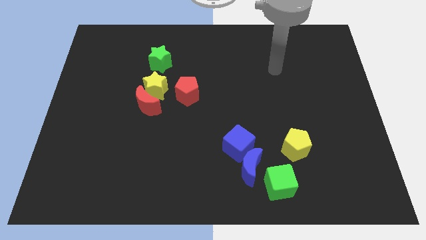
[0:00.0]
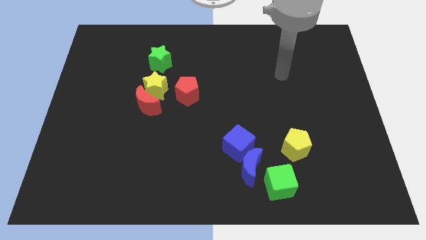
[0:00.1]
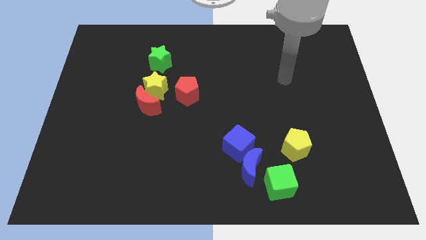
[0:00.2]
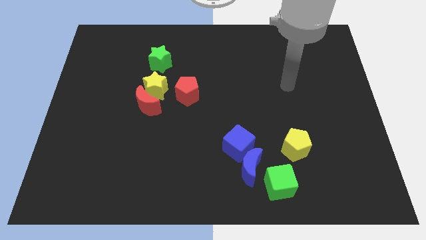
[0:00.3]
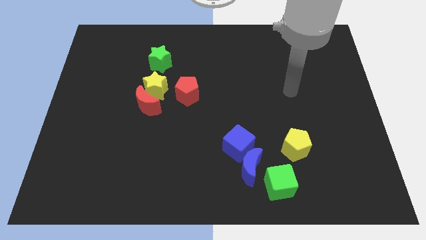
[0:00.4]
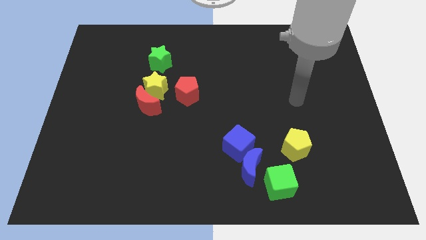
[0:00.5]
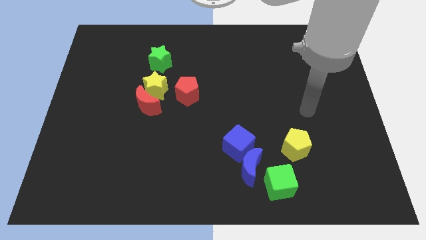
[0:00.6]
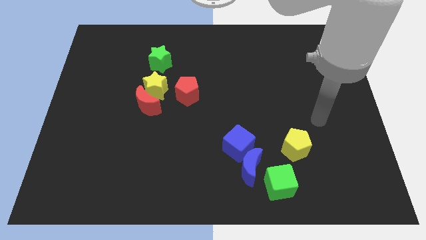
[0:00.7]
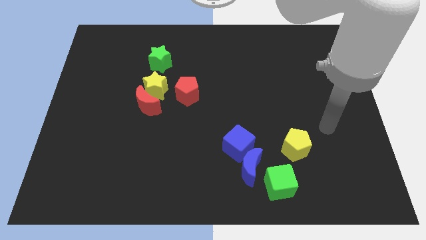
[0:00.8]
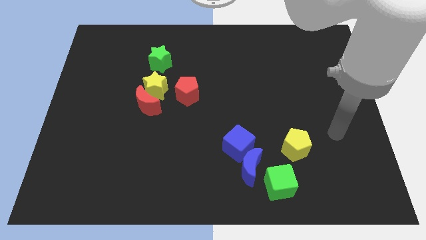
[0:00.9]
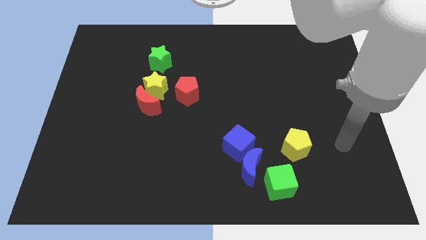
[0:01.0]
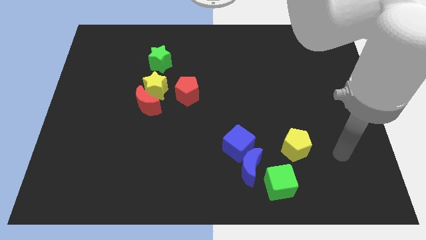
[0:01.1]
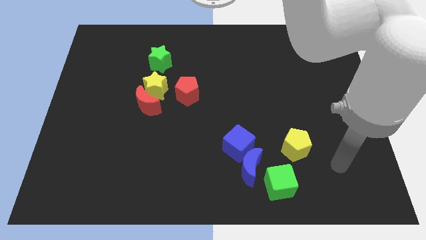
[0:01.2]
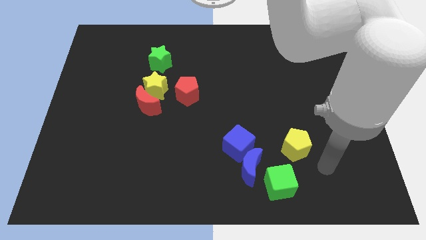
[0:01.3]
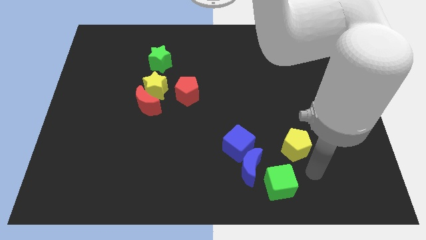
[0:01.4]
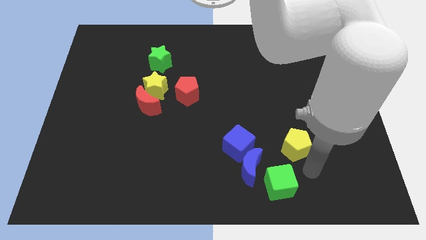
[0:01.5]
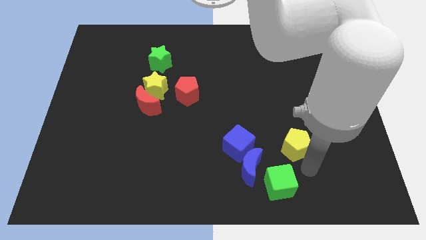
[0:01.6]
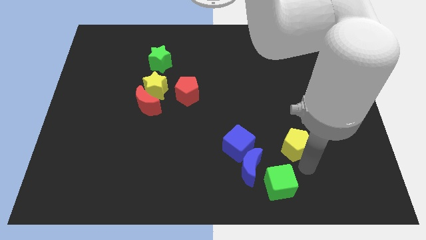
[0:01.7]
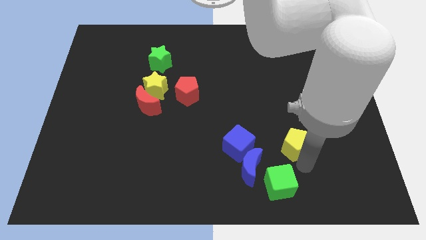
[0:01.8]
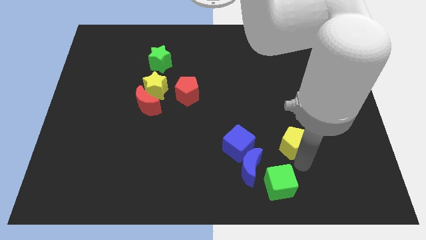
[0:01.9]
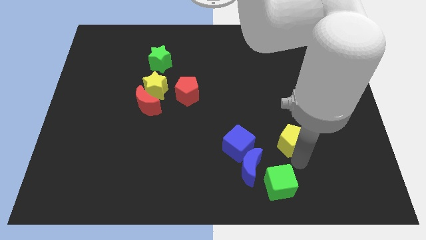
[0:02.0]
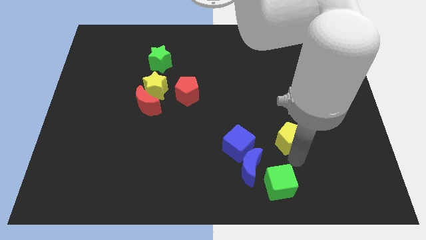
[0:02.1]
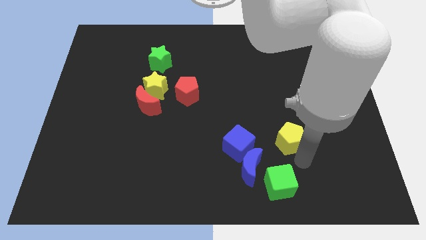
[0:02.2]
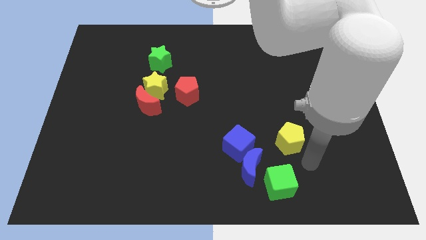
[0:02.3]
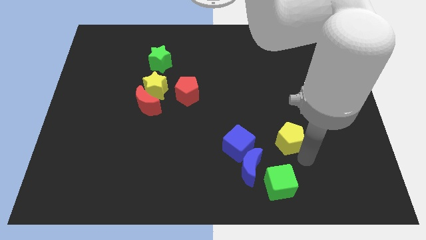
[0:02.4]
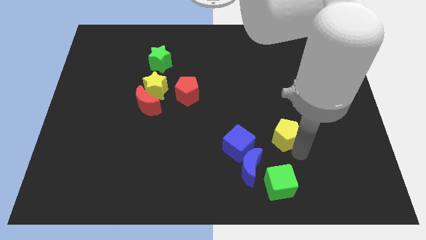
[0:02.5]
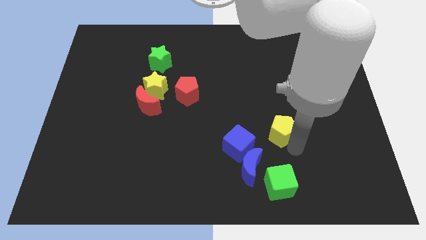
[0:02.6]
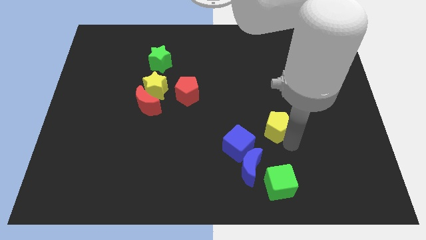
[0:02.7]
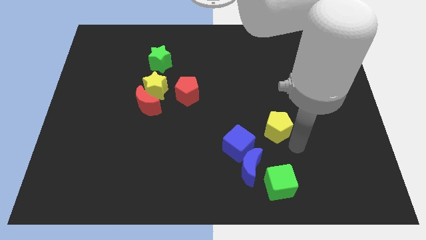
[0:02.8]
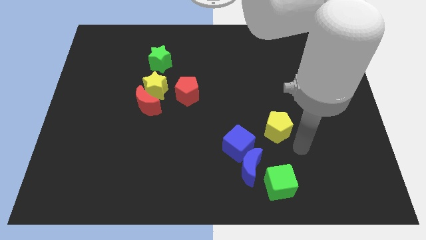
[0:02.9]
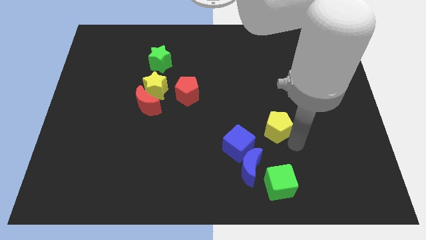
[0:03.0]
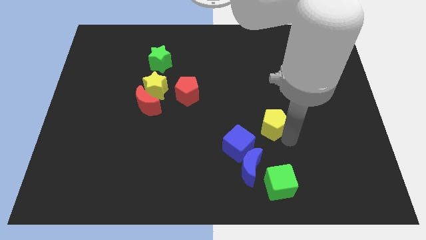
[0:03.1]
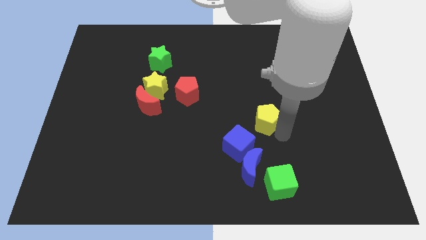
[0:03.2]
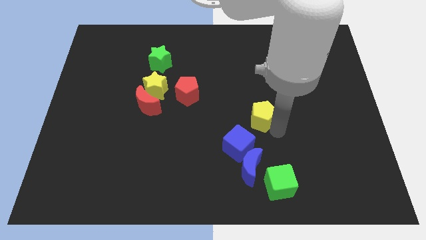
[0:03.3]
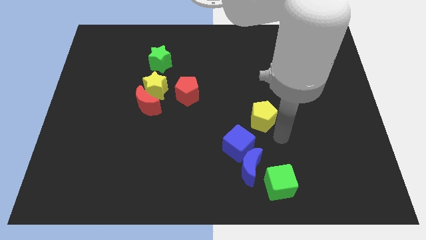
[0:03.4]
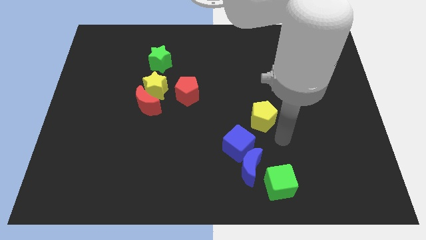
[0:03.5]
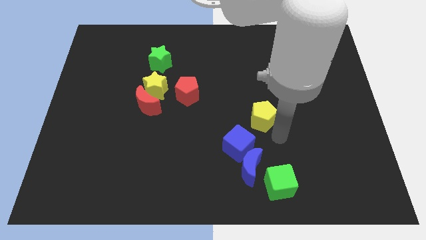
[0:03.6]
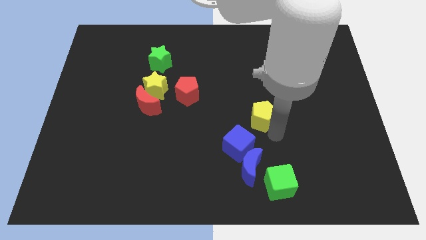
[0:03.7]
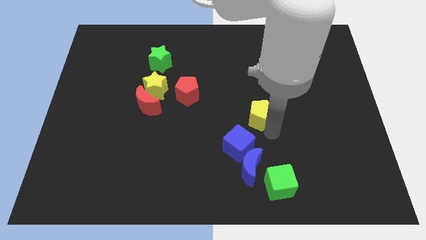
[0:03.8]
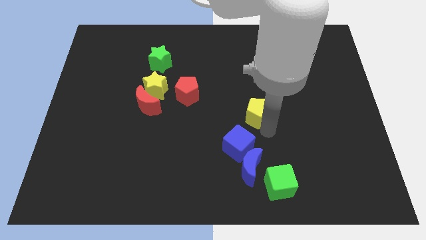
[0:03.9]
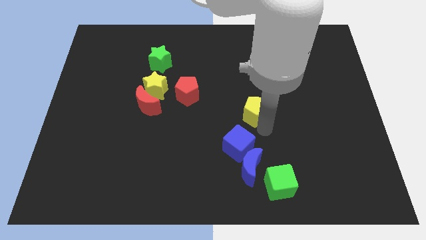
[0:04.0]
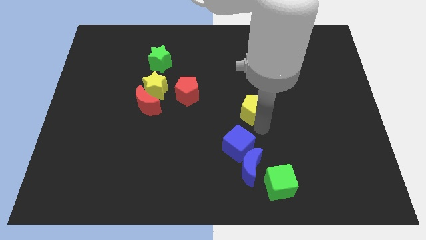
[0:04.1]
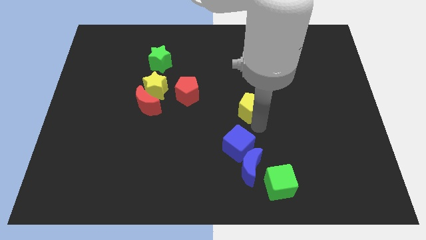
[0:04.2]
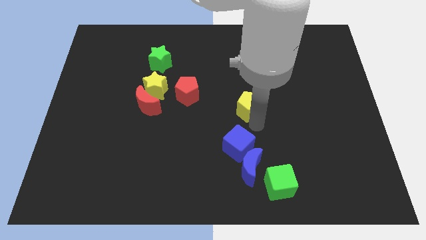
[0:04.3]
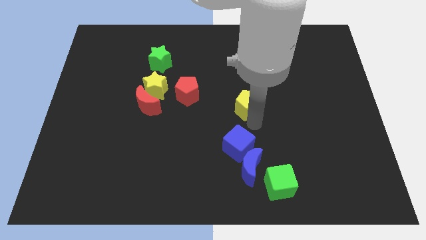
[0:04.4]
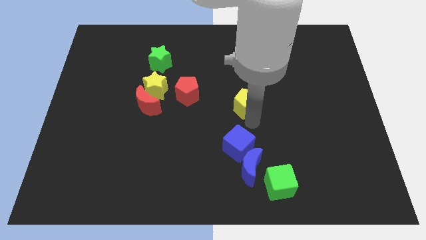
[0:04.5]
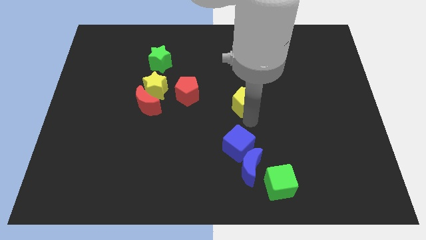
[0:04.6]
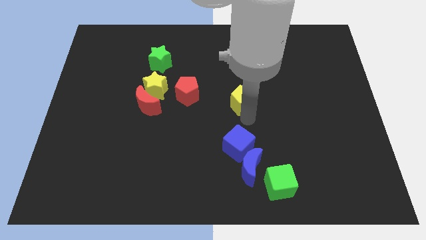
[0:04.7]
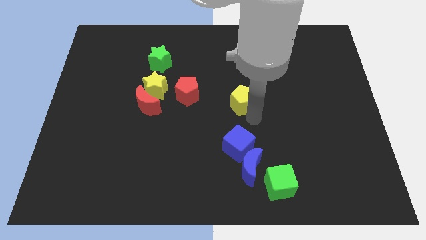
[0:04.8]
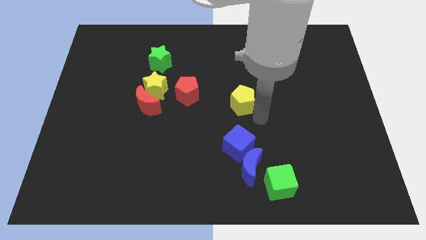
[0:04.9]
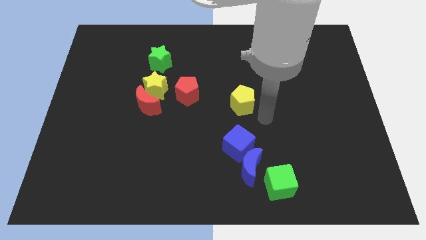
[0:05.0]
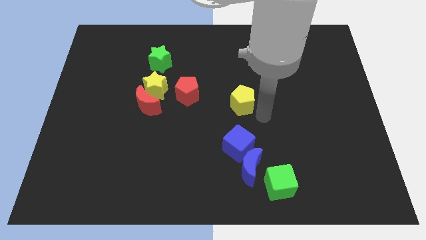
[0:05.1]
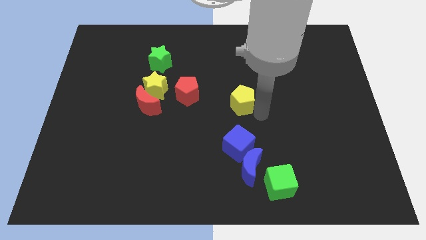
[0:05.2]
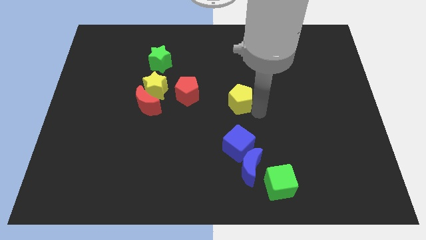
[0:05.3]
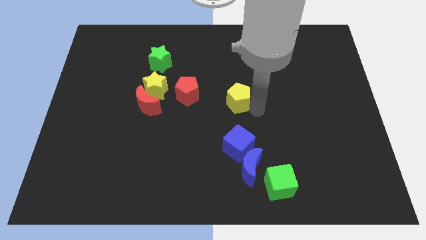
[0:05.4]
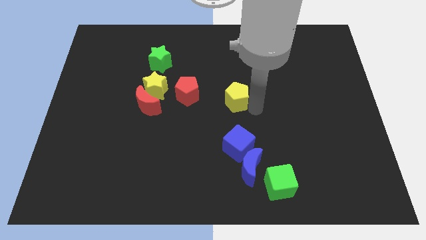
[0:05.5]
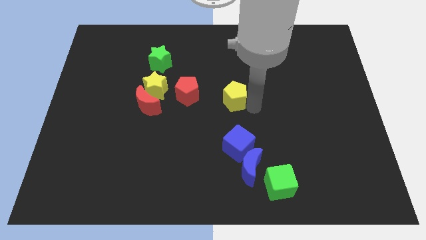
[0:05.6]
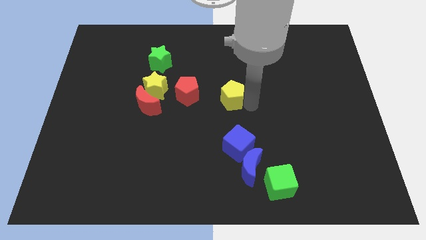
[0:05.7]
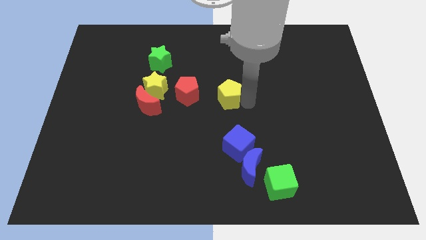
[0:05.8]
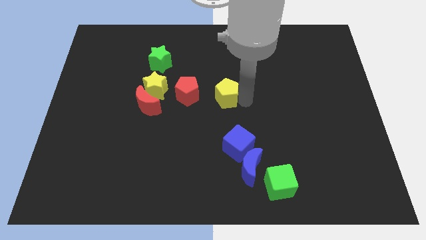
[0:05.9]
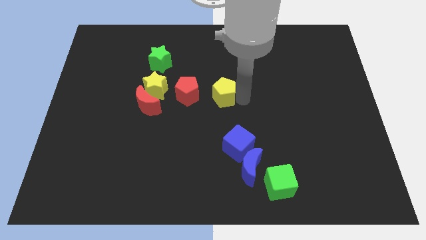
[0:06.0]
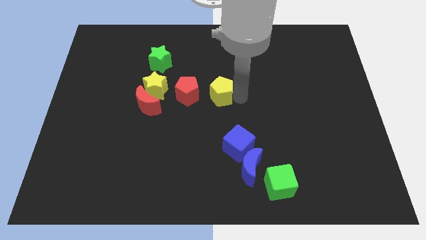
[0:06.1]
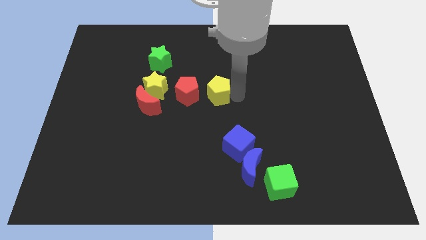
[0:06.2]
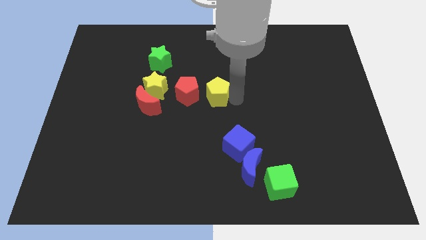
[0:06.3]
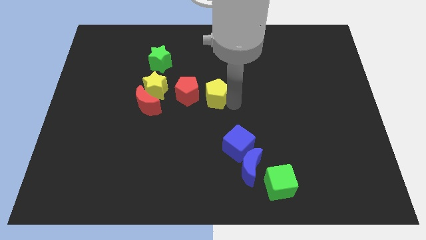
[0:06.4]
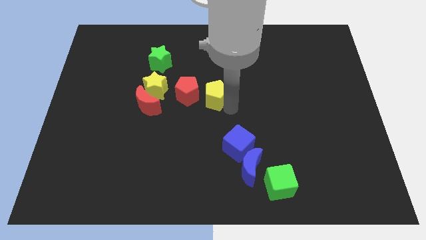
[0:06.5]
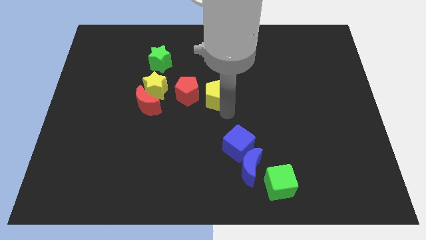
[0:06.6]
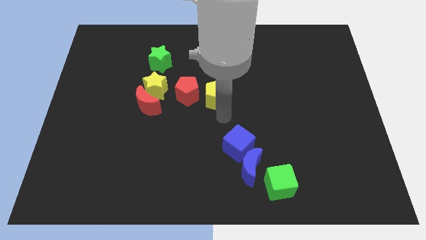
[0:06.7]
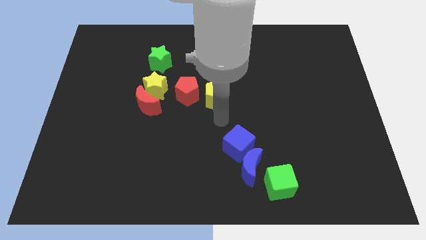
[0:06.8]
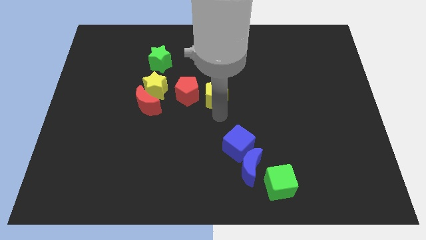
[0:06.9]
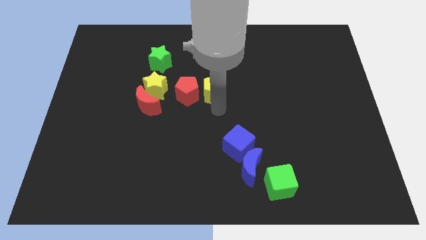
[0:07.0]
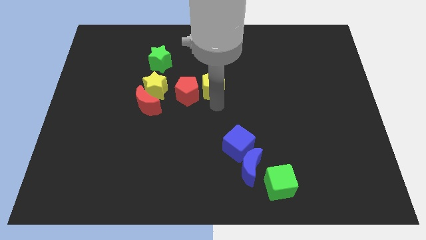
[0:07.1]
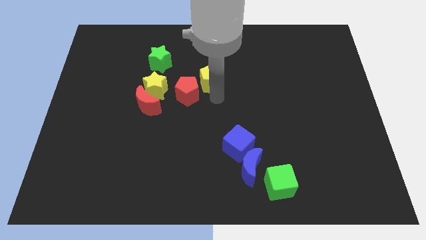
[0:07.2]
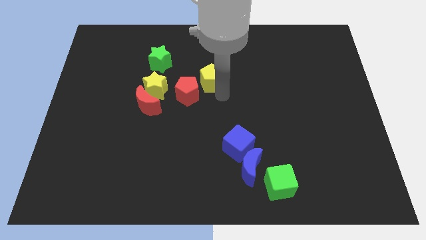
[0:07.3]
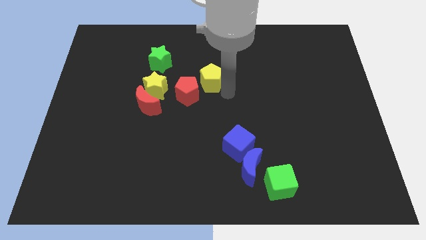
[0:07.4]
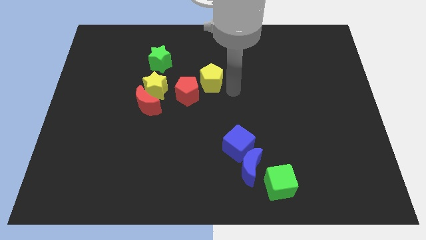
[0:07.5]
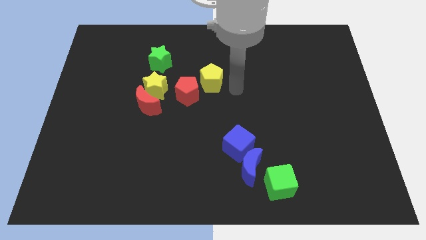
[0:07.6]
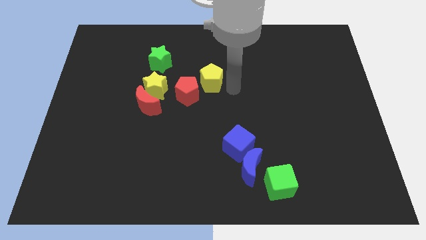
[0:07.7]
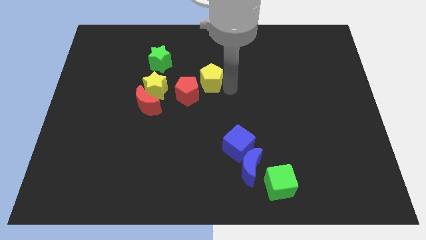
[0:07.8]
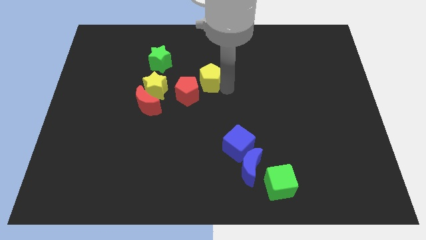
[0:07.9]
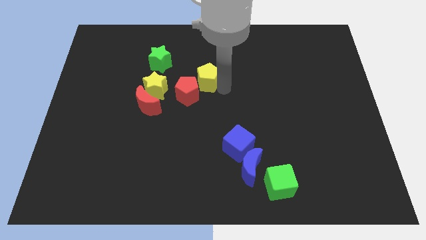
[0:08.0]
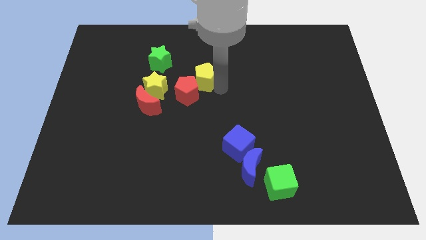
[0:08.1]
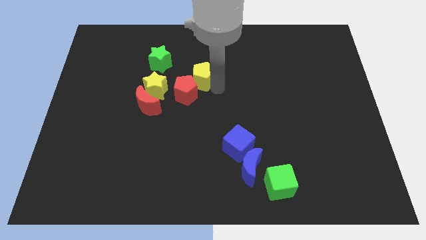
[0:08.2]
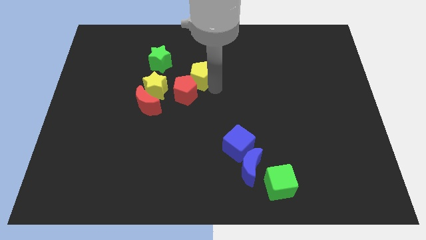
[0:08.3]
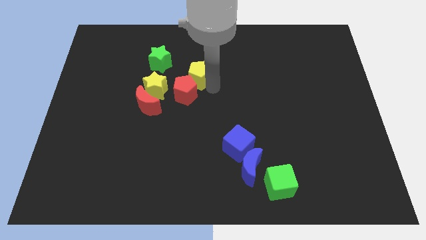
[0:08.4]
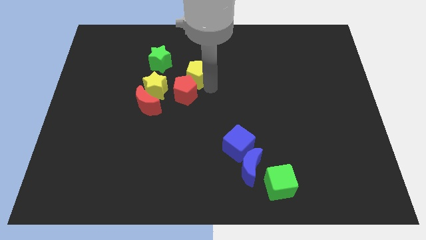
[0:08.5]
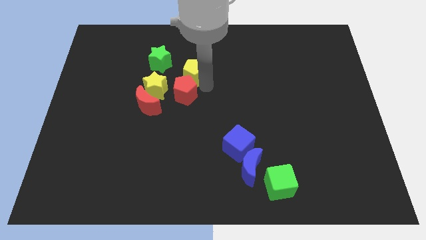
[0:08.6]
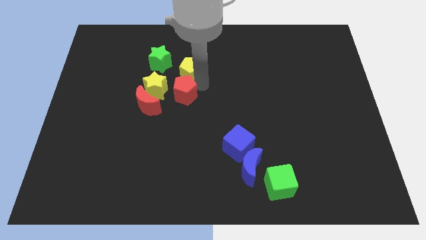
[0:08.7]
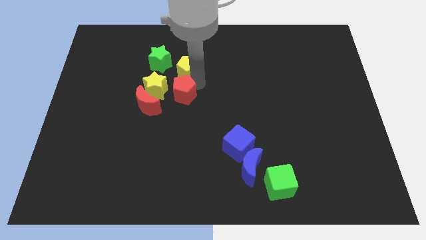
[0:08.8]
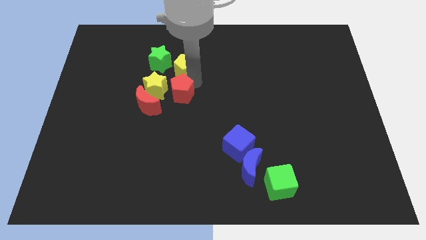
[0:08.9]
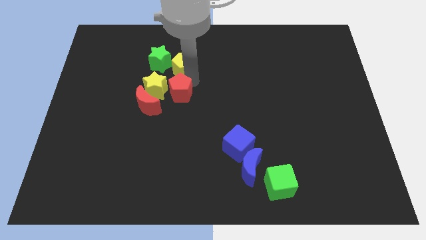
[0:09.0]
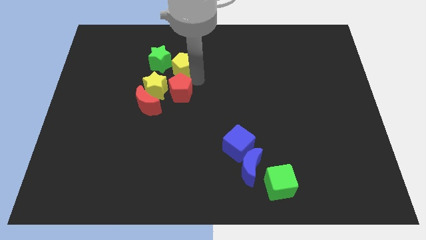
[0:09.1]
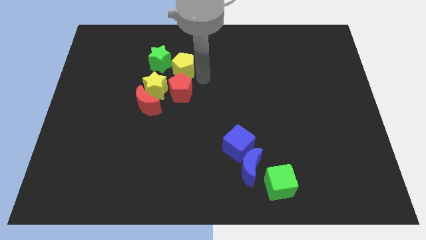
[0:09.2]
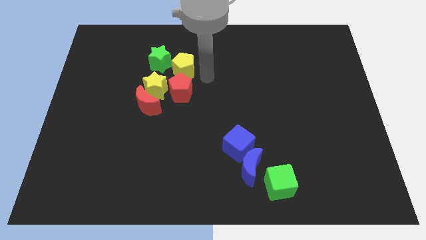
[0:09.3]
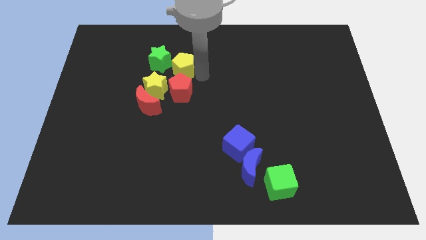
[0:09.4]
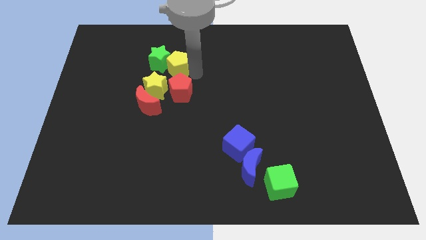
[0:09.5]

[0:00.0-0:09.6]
move the yellow pentagon towards the green star
